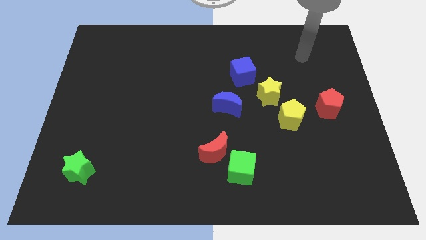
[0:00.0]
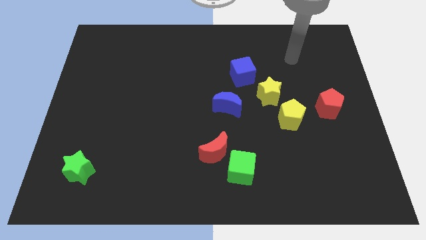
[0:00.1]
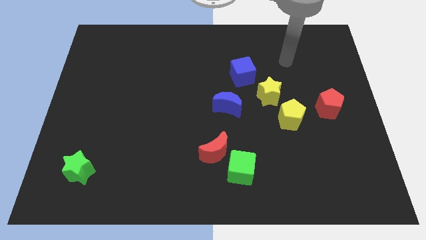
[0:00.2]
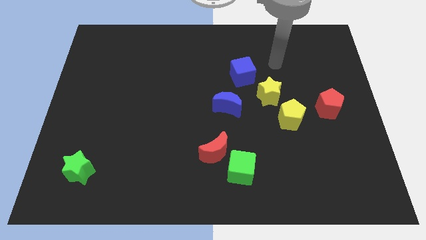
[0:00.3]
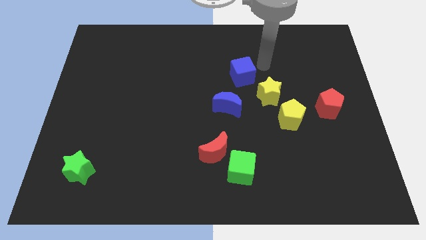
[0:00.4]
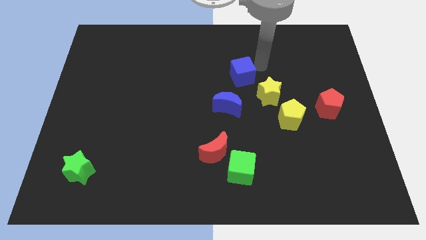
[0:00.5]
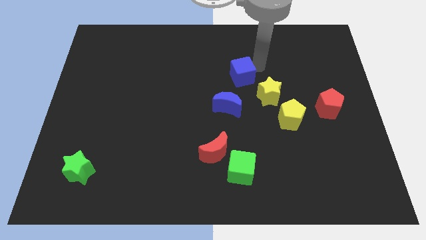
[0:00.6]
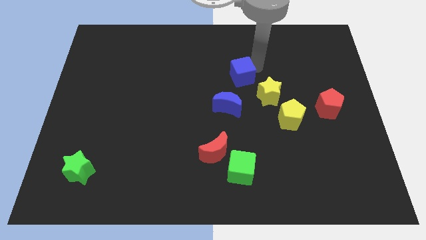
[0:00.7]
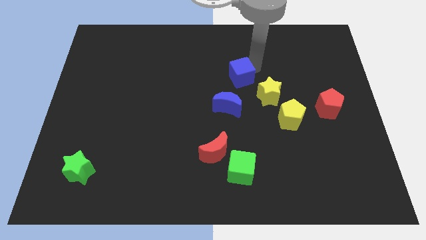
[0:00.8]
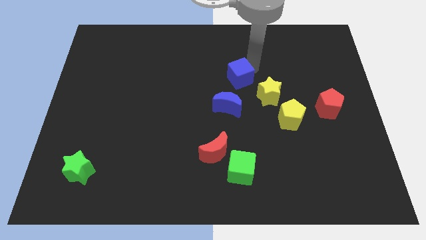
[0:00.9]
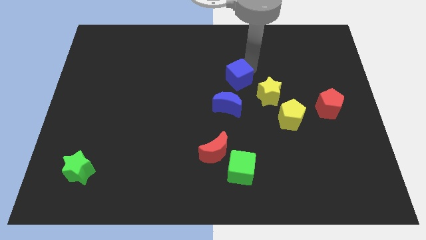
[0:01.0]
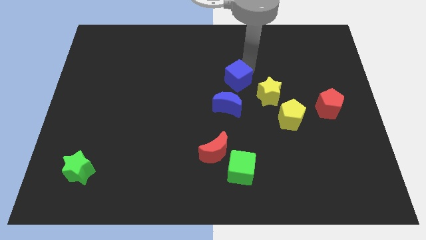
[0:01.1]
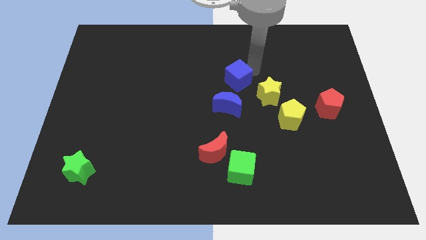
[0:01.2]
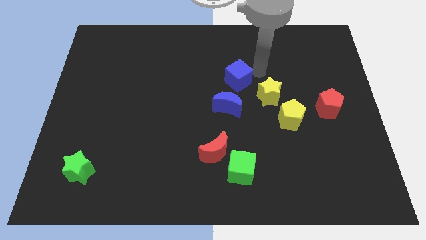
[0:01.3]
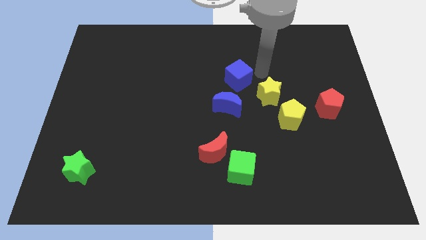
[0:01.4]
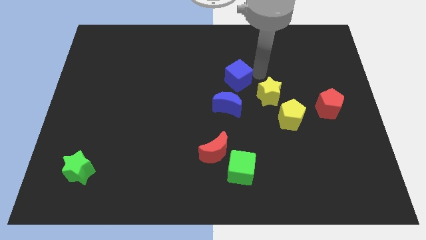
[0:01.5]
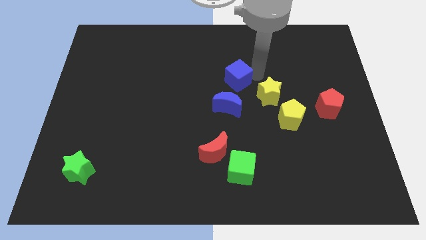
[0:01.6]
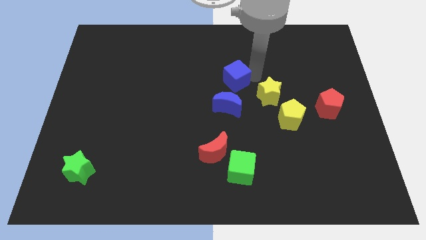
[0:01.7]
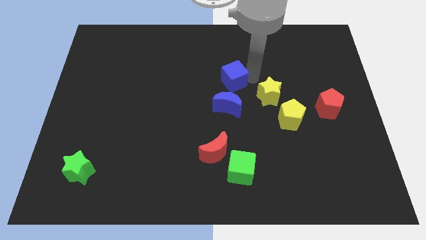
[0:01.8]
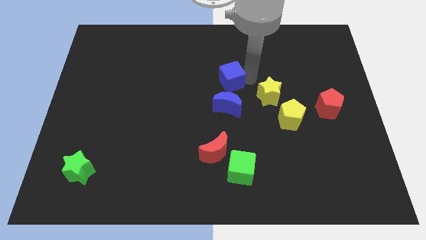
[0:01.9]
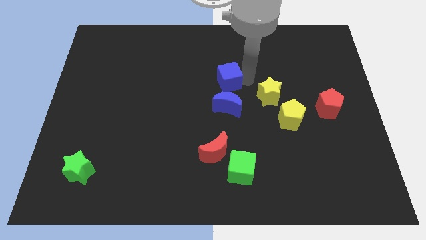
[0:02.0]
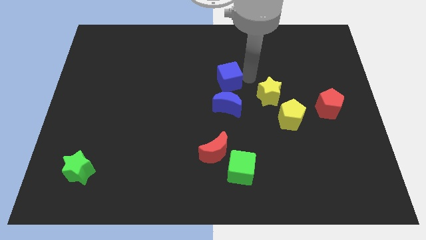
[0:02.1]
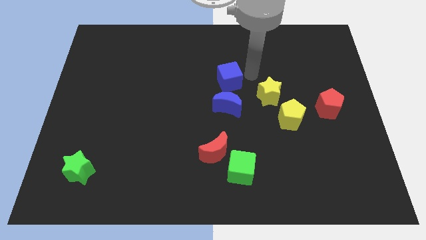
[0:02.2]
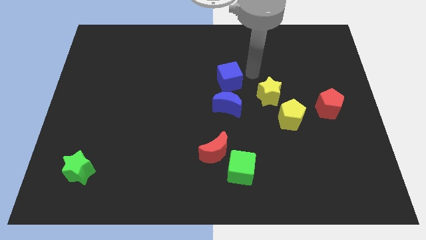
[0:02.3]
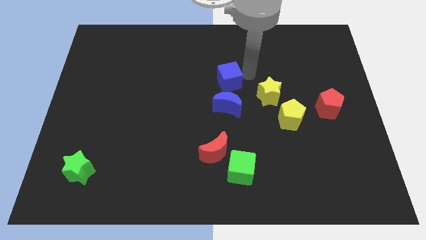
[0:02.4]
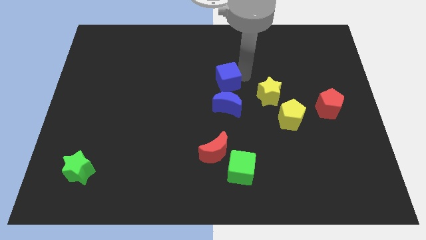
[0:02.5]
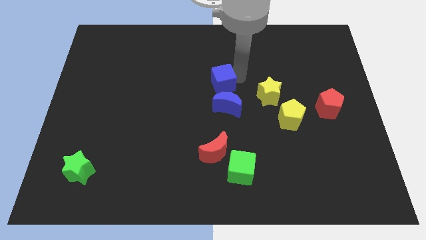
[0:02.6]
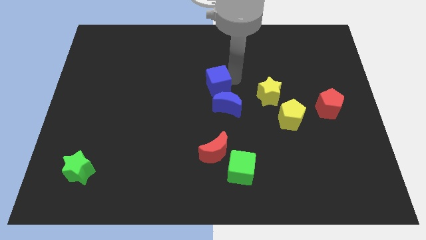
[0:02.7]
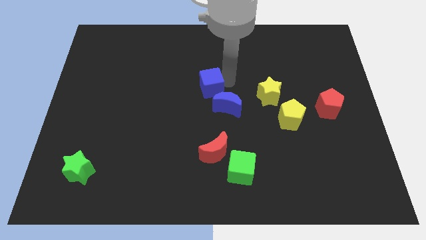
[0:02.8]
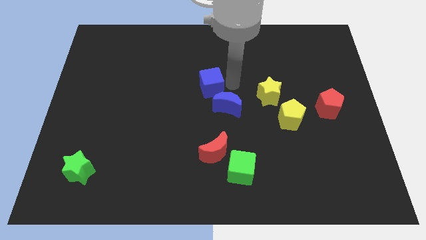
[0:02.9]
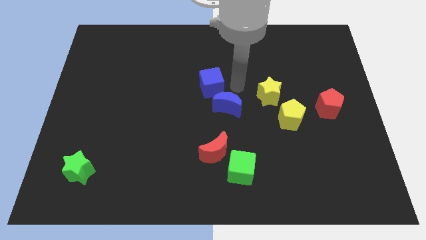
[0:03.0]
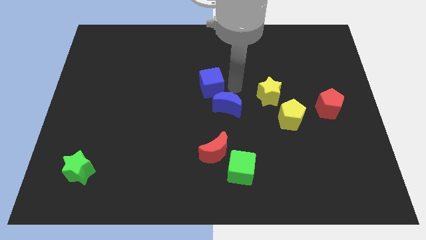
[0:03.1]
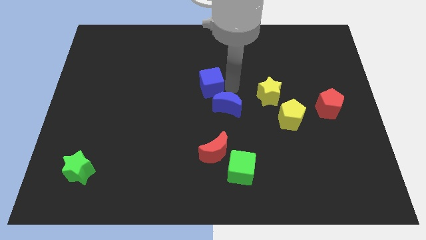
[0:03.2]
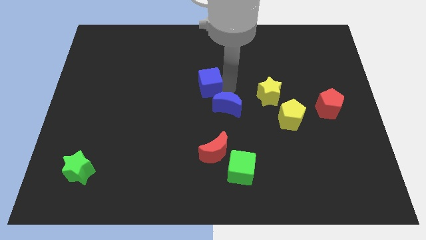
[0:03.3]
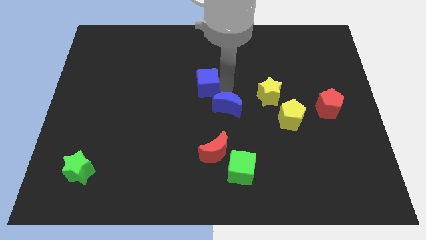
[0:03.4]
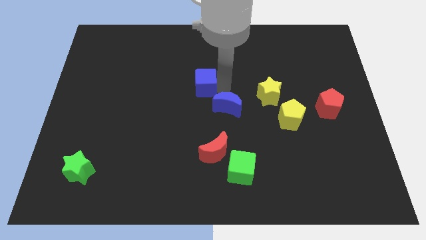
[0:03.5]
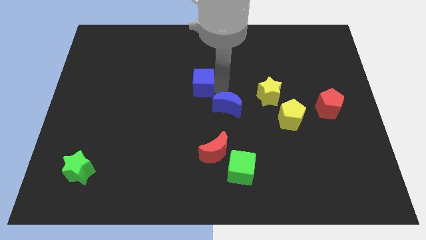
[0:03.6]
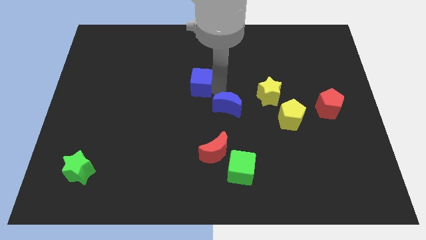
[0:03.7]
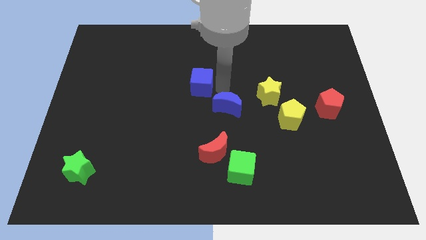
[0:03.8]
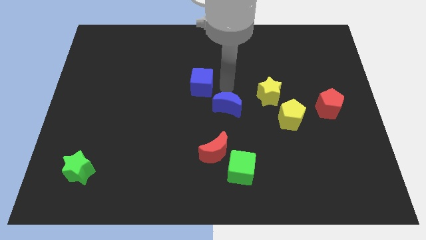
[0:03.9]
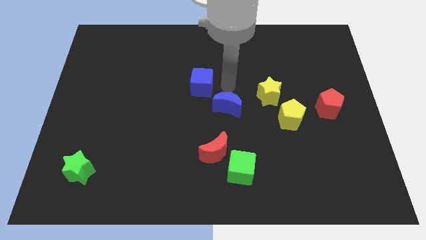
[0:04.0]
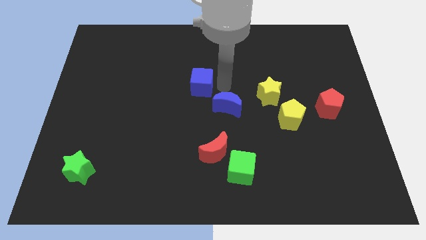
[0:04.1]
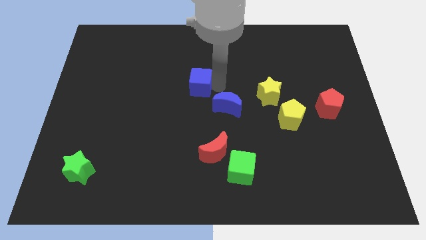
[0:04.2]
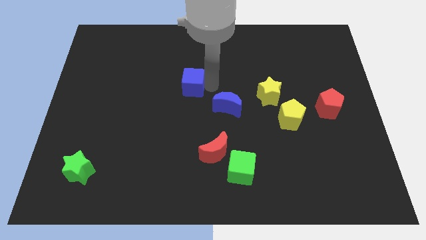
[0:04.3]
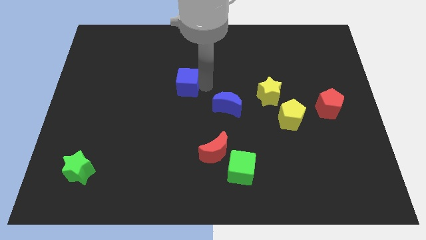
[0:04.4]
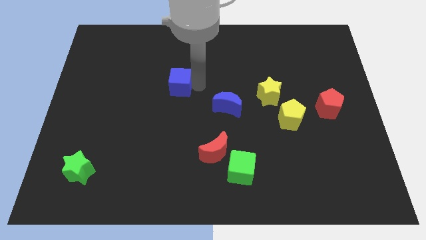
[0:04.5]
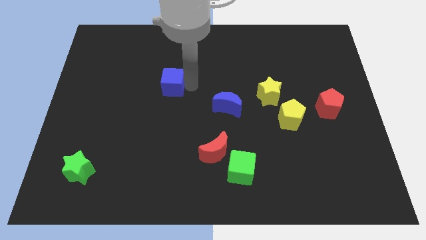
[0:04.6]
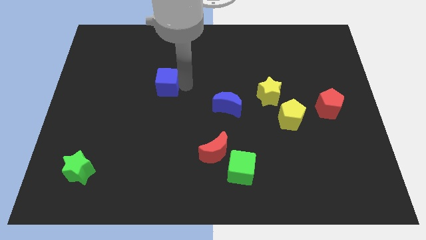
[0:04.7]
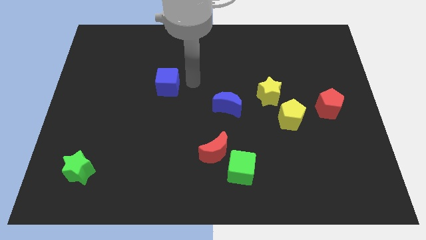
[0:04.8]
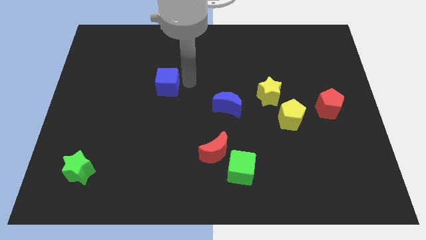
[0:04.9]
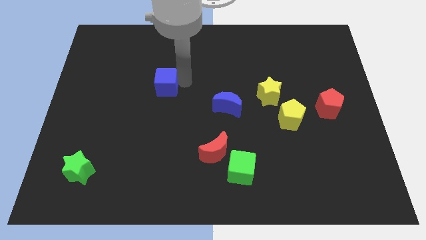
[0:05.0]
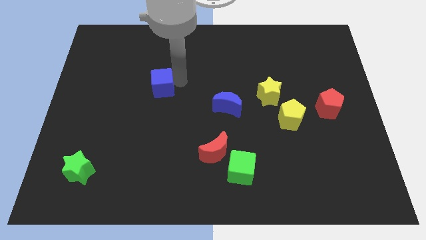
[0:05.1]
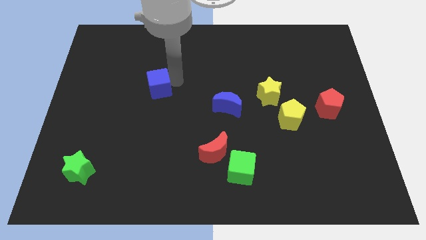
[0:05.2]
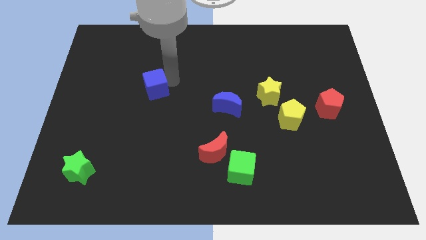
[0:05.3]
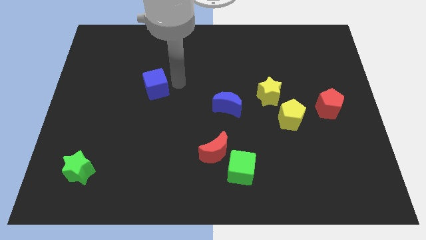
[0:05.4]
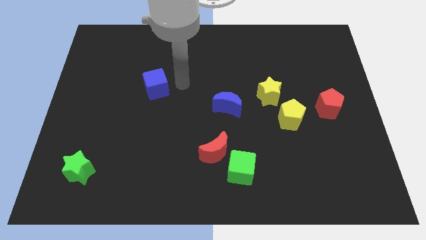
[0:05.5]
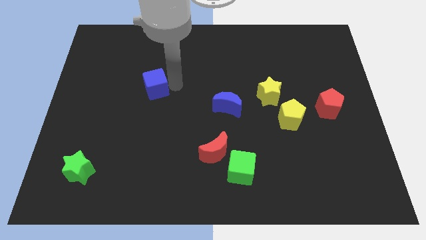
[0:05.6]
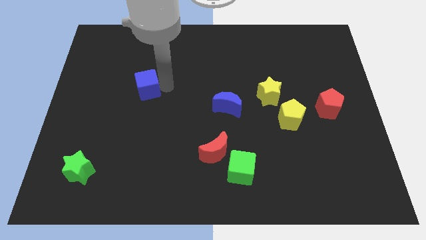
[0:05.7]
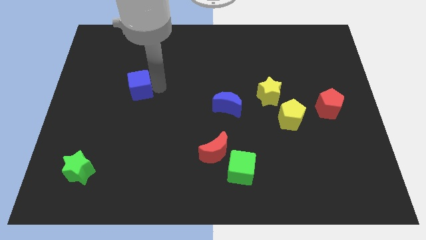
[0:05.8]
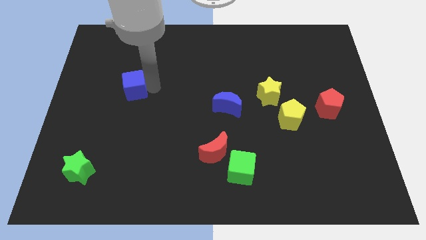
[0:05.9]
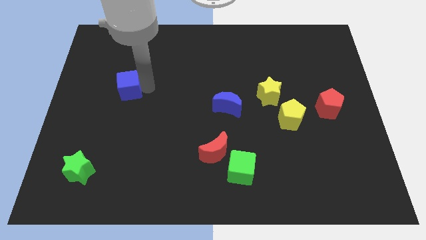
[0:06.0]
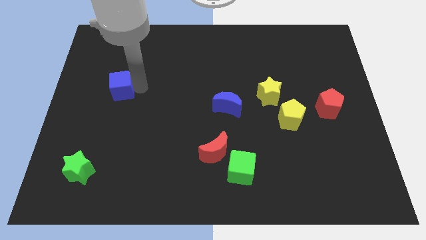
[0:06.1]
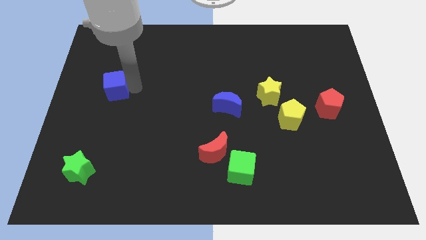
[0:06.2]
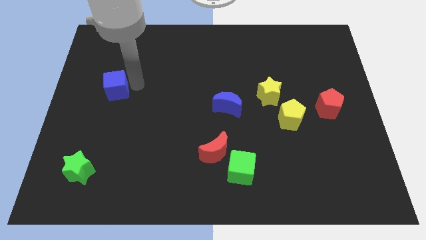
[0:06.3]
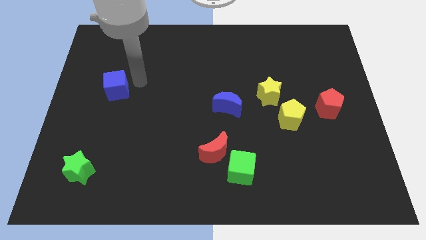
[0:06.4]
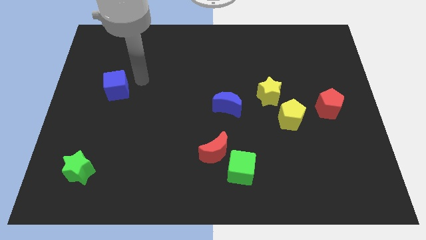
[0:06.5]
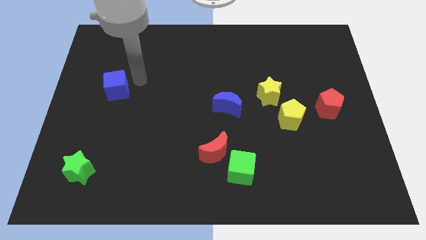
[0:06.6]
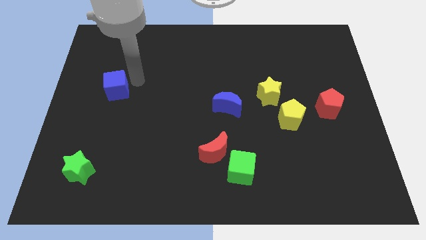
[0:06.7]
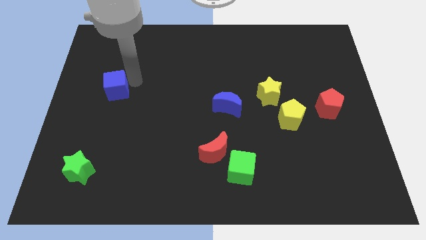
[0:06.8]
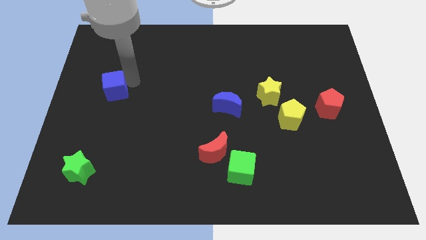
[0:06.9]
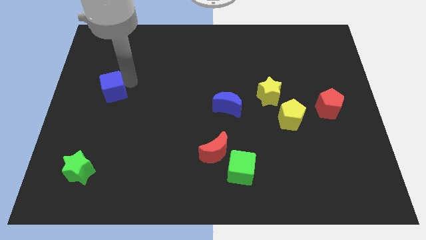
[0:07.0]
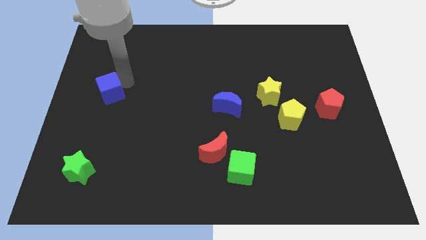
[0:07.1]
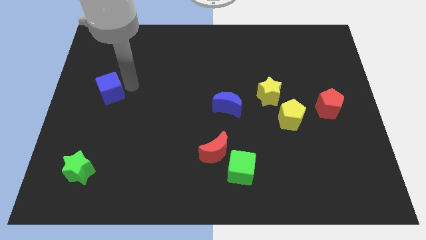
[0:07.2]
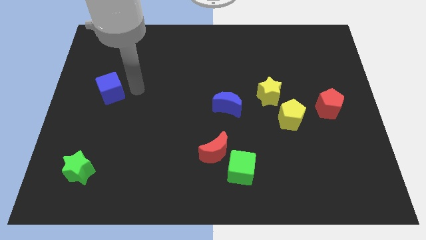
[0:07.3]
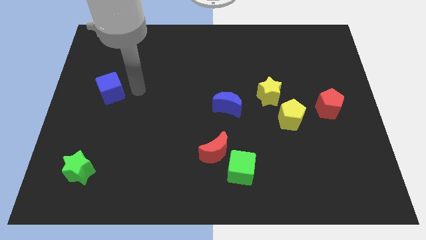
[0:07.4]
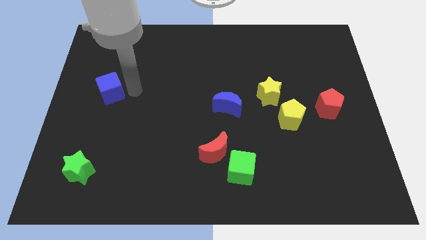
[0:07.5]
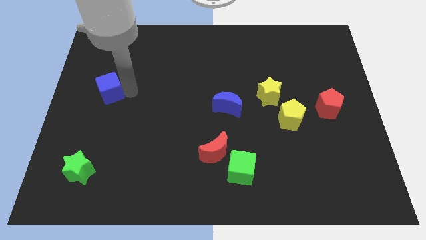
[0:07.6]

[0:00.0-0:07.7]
slide the blue cube to the center left
